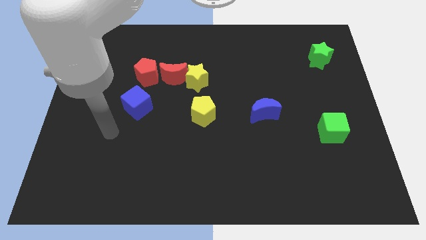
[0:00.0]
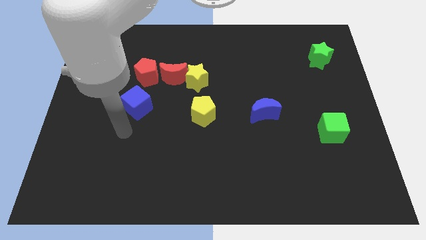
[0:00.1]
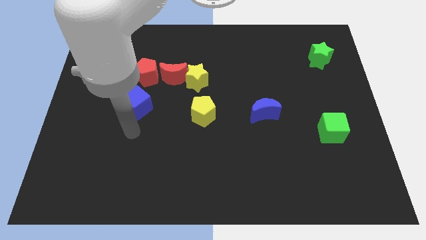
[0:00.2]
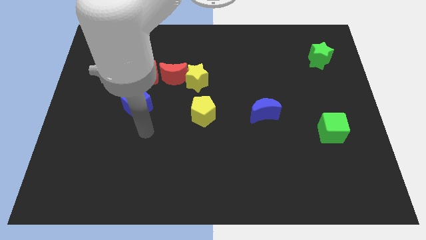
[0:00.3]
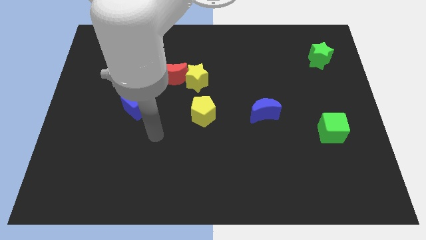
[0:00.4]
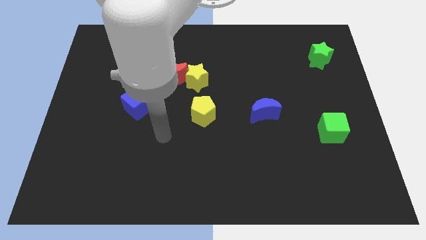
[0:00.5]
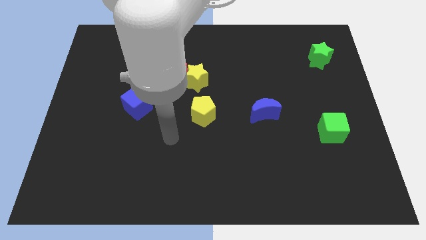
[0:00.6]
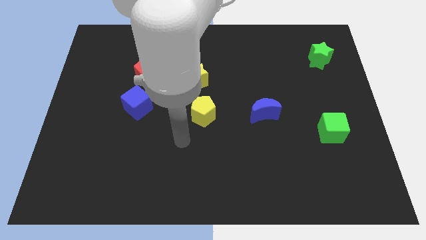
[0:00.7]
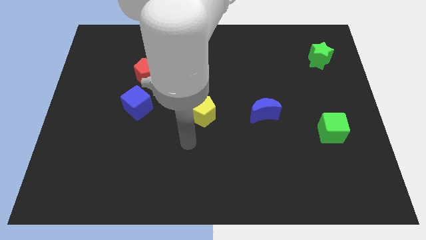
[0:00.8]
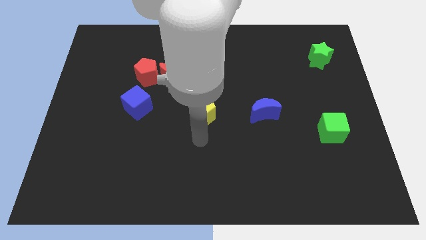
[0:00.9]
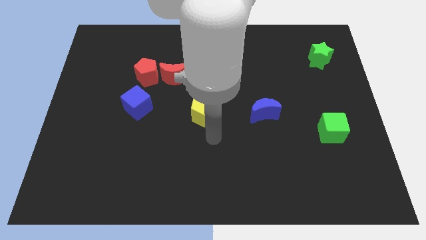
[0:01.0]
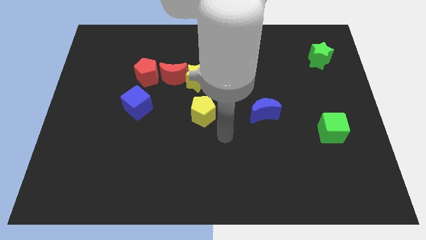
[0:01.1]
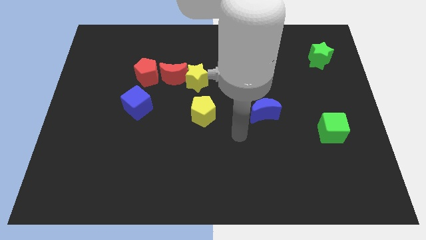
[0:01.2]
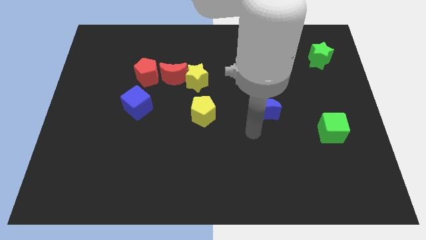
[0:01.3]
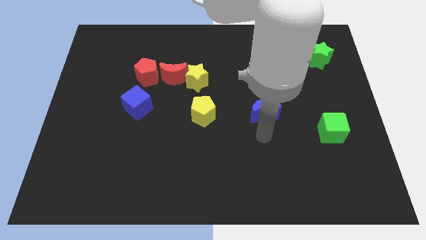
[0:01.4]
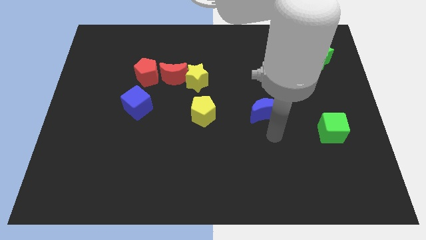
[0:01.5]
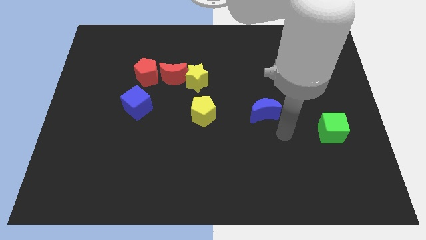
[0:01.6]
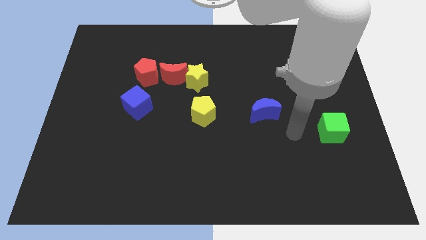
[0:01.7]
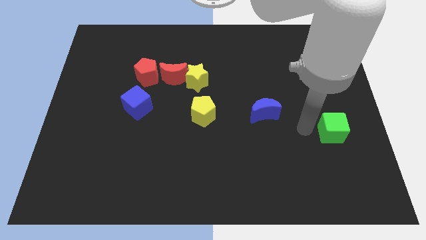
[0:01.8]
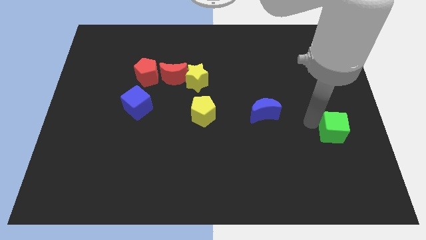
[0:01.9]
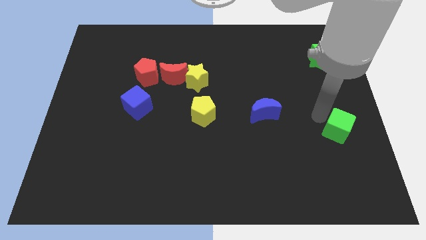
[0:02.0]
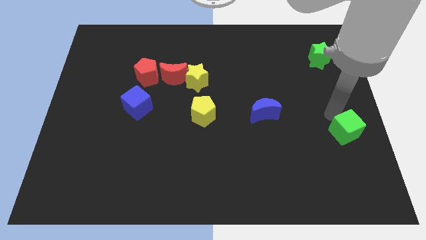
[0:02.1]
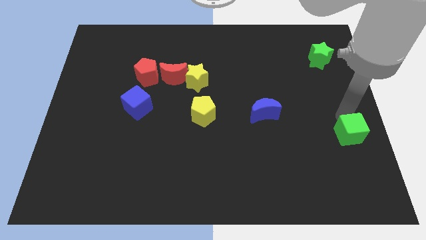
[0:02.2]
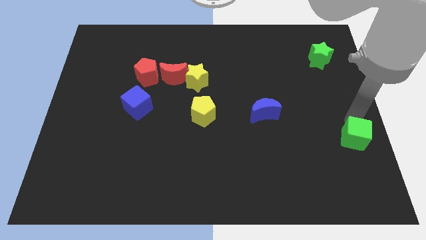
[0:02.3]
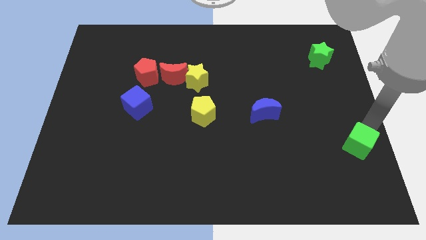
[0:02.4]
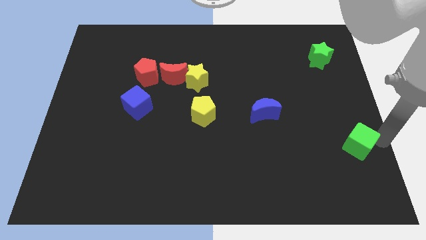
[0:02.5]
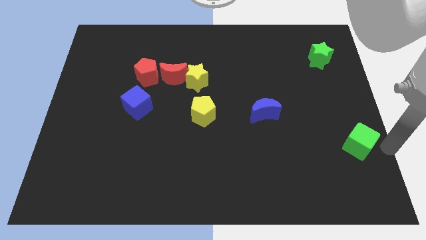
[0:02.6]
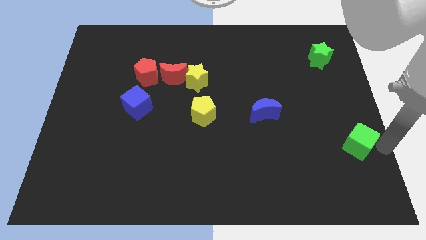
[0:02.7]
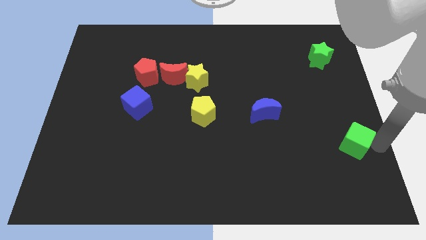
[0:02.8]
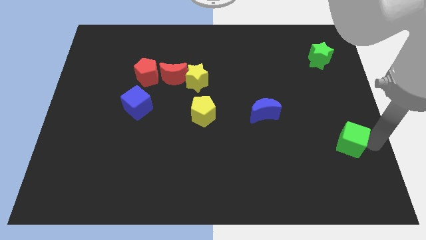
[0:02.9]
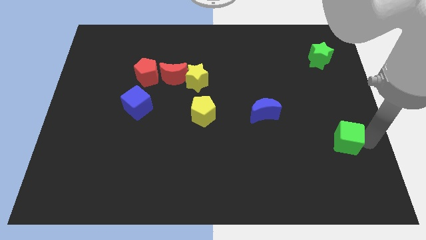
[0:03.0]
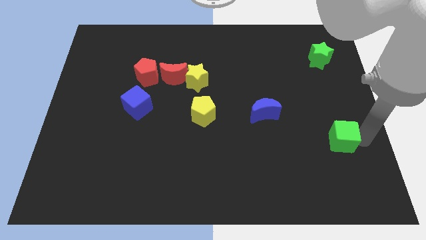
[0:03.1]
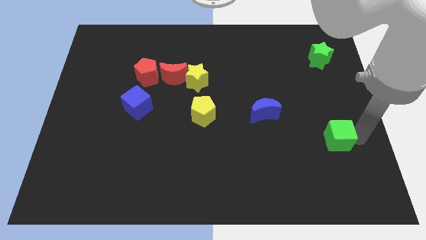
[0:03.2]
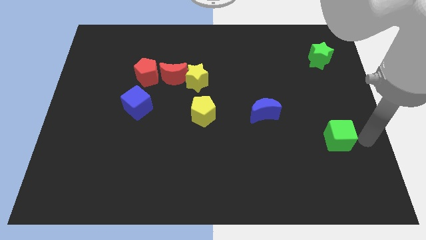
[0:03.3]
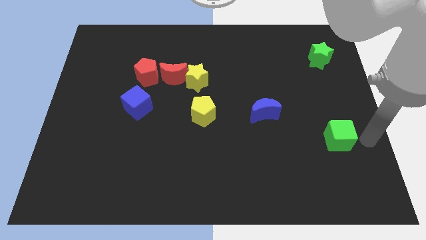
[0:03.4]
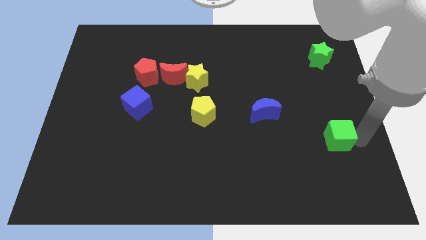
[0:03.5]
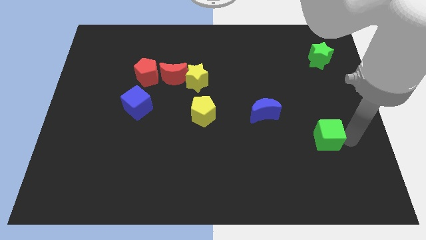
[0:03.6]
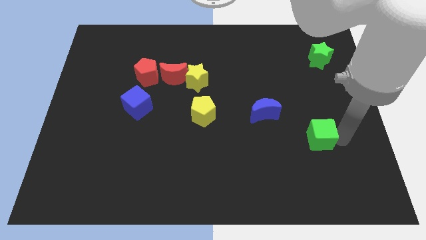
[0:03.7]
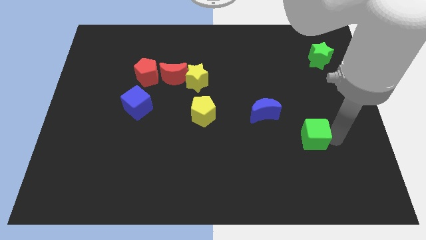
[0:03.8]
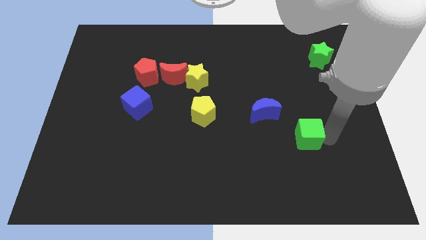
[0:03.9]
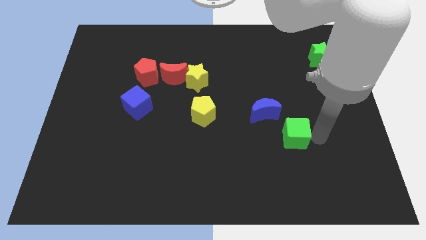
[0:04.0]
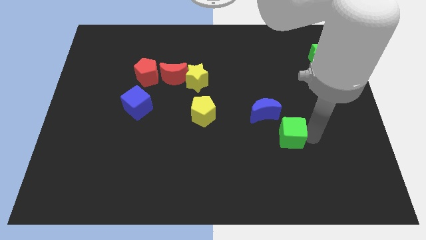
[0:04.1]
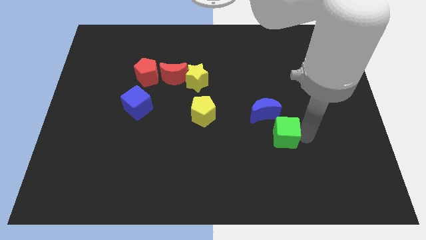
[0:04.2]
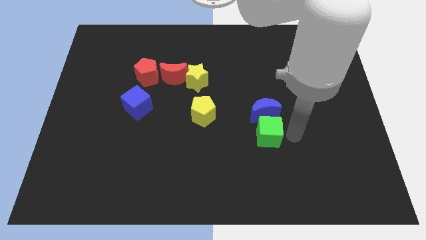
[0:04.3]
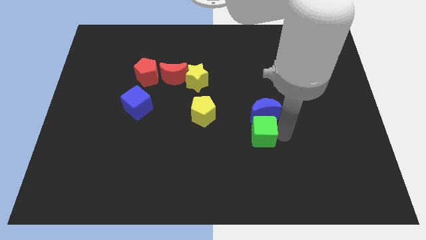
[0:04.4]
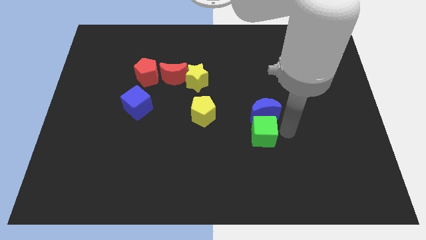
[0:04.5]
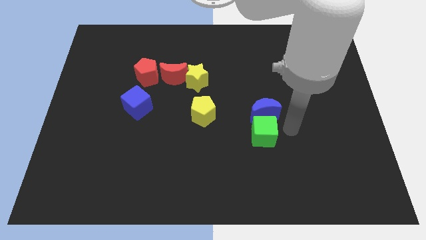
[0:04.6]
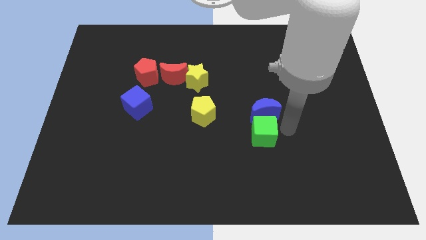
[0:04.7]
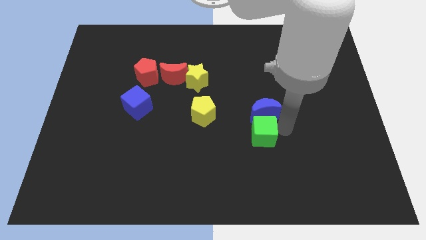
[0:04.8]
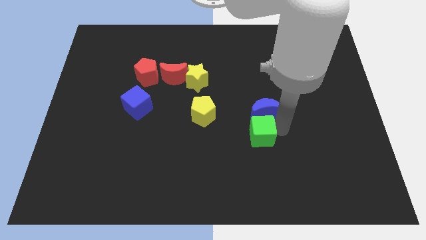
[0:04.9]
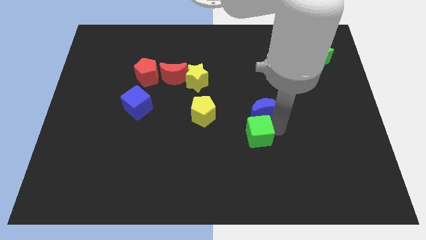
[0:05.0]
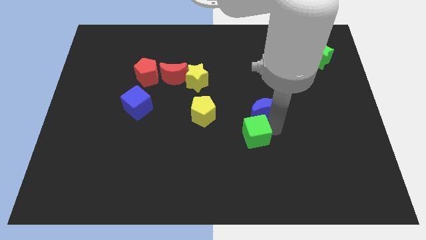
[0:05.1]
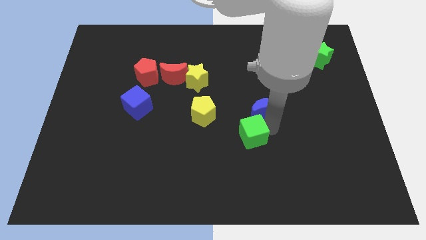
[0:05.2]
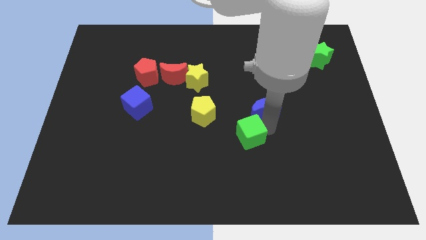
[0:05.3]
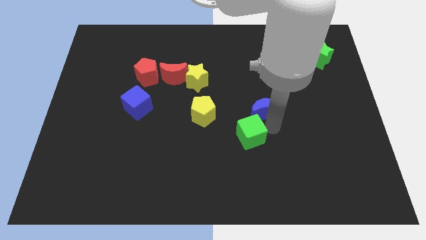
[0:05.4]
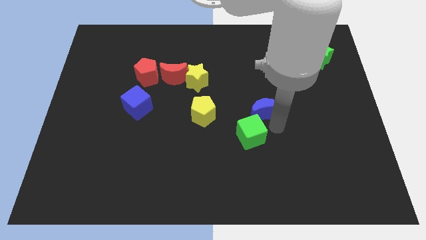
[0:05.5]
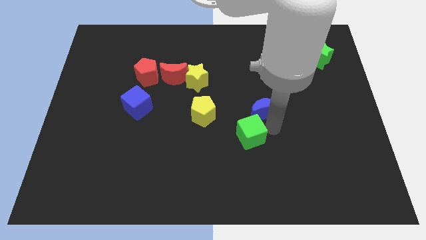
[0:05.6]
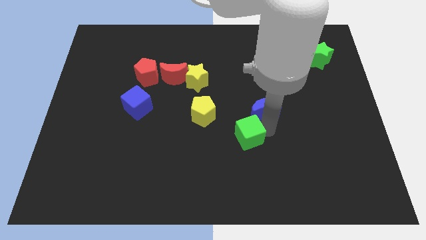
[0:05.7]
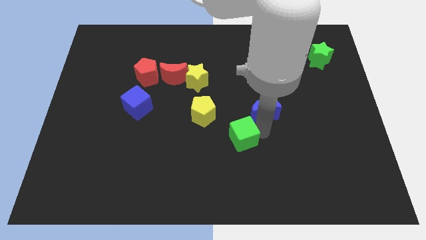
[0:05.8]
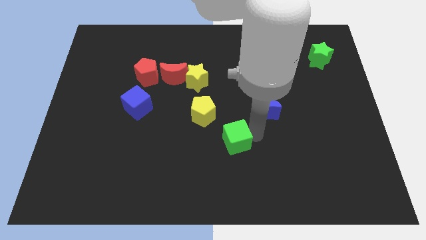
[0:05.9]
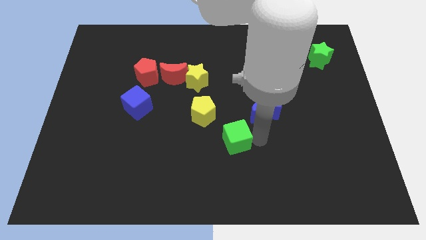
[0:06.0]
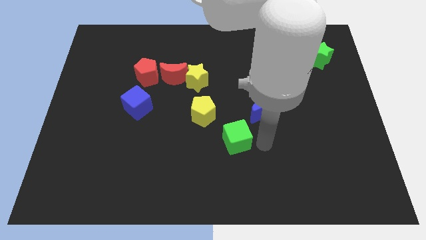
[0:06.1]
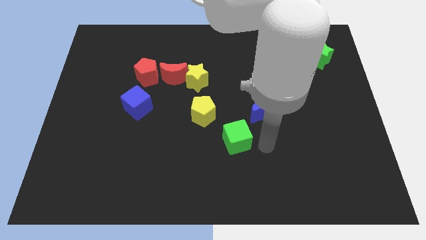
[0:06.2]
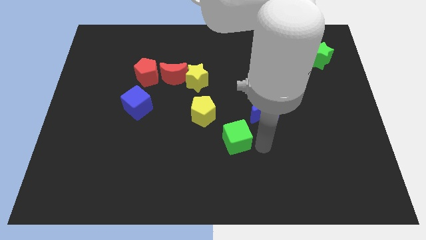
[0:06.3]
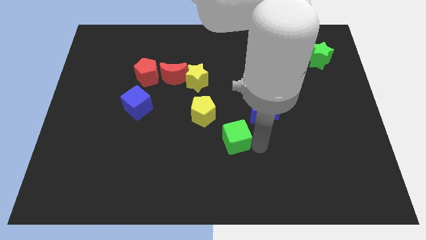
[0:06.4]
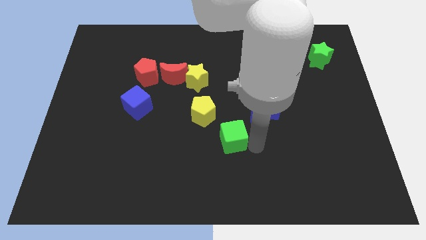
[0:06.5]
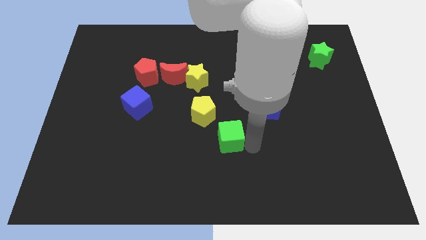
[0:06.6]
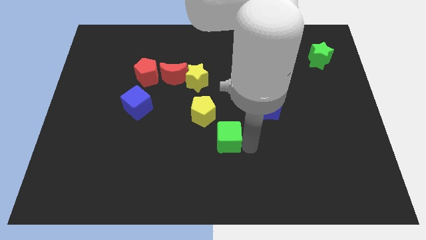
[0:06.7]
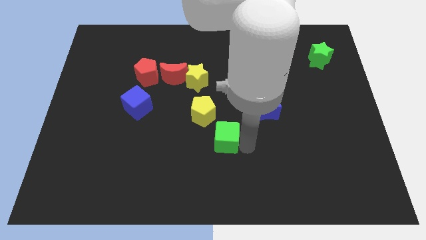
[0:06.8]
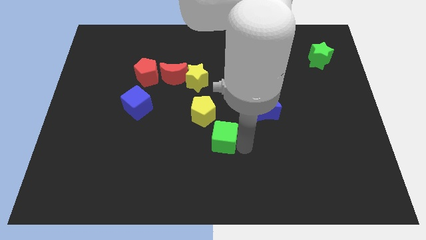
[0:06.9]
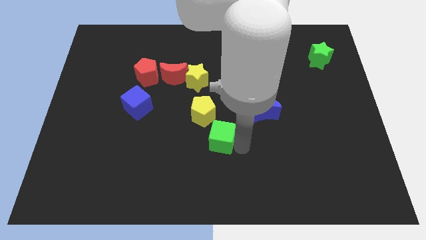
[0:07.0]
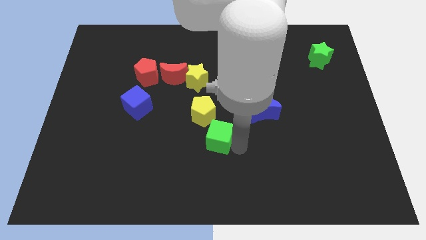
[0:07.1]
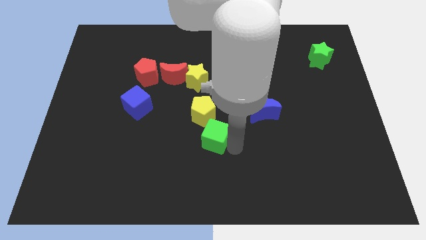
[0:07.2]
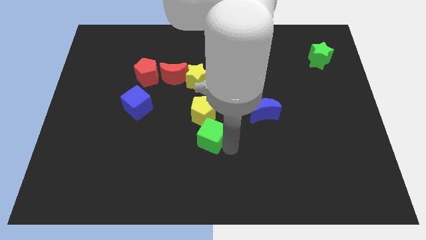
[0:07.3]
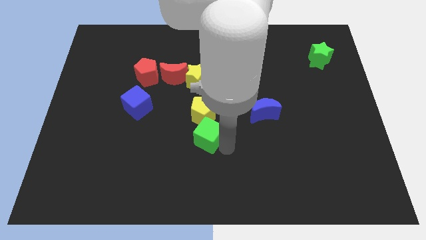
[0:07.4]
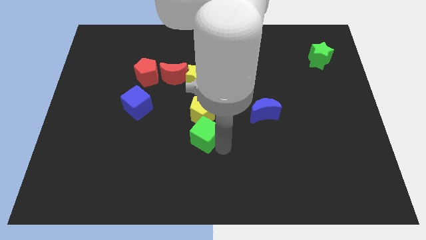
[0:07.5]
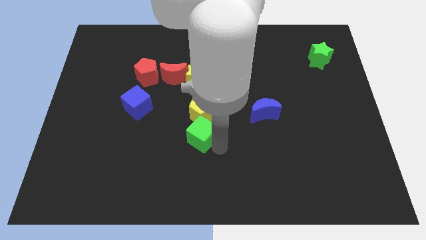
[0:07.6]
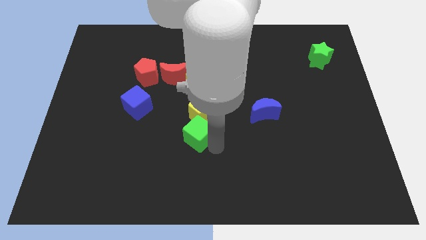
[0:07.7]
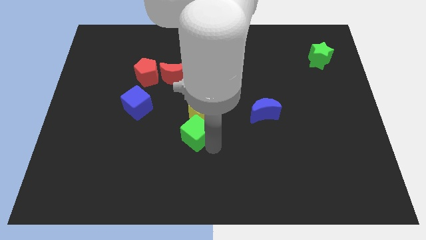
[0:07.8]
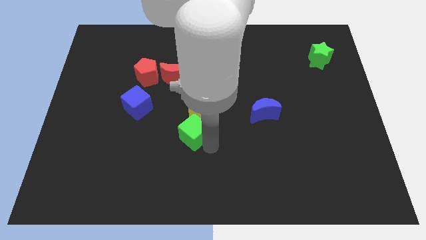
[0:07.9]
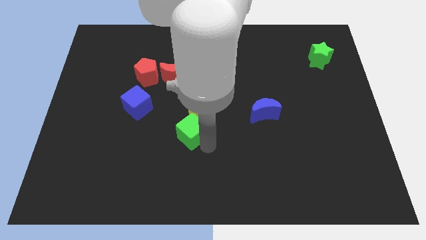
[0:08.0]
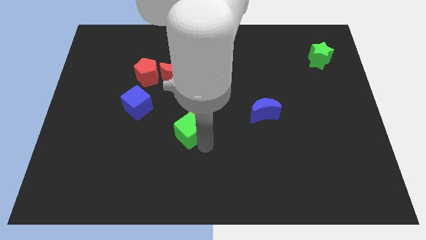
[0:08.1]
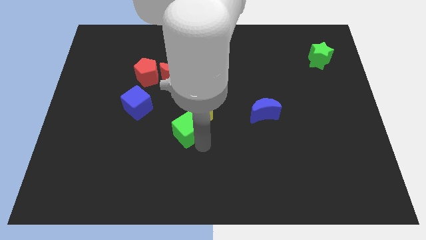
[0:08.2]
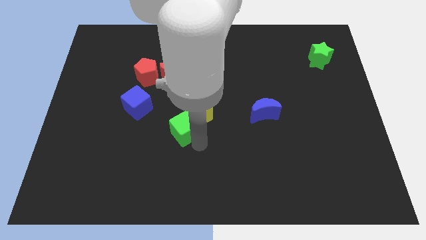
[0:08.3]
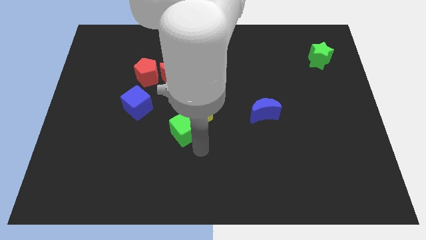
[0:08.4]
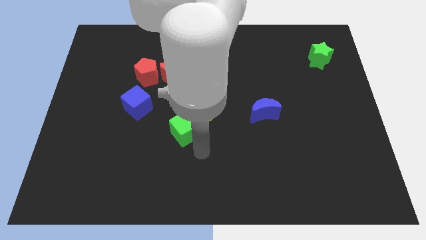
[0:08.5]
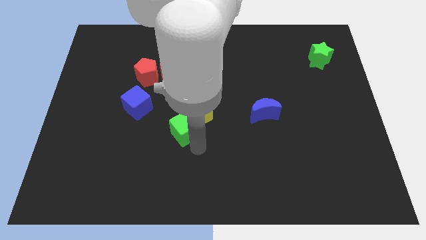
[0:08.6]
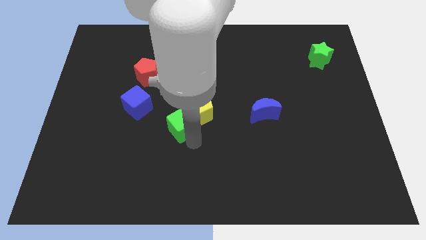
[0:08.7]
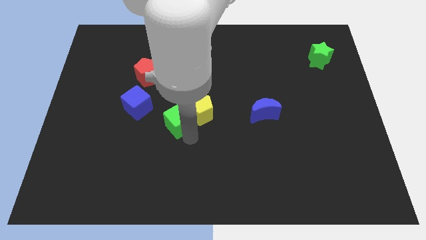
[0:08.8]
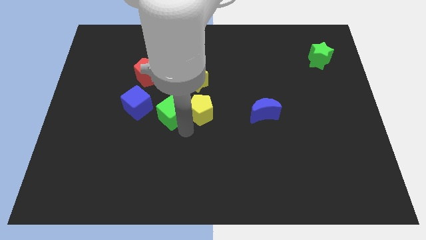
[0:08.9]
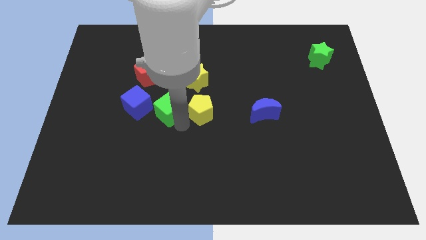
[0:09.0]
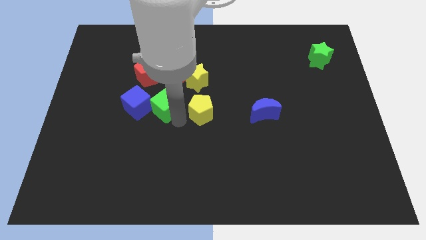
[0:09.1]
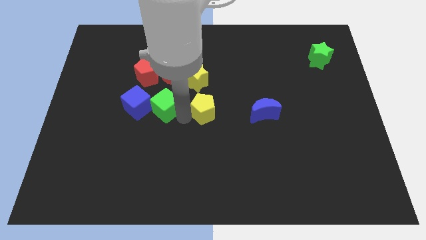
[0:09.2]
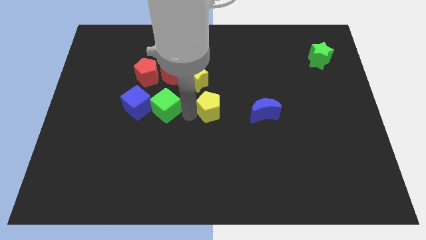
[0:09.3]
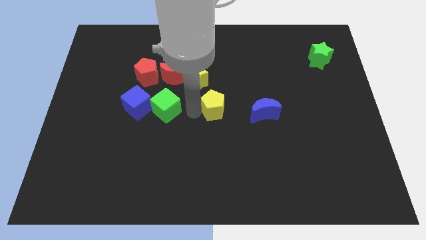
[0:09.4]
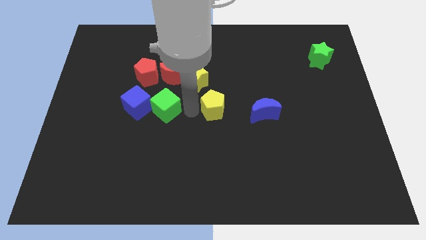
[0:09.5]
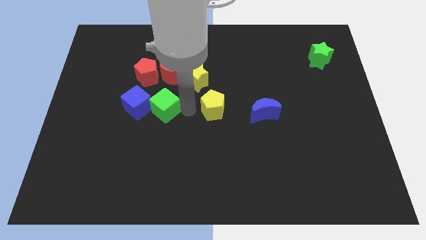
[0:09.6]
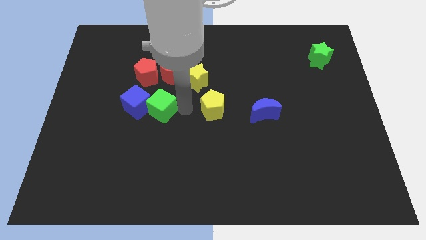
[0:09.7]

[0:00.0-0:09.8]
slide the green cube towards the blue cube
